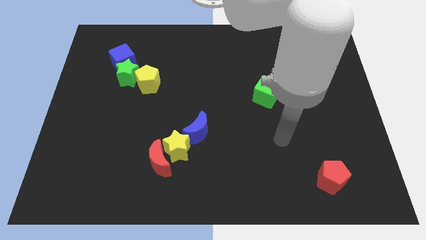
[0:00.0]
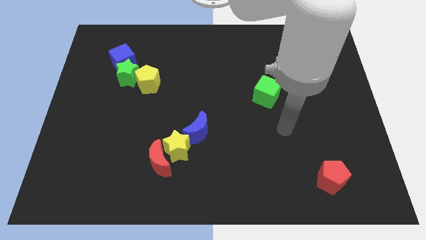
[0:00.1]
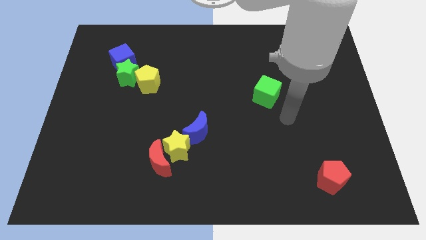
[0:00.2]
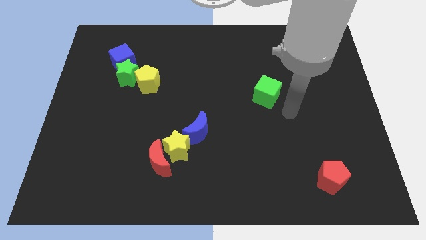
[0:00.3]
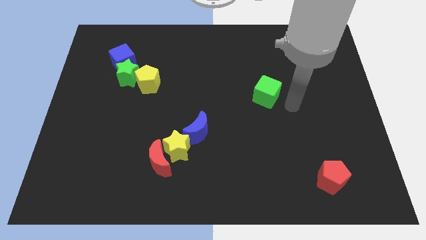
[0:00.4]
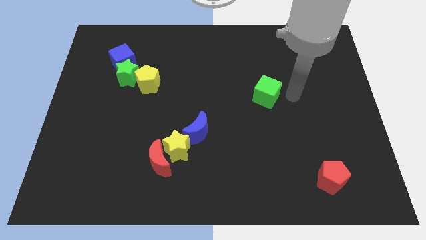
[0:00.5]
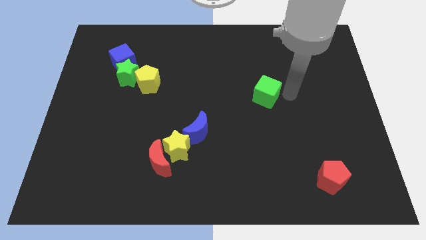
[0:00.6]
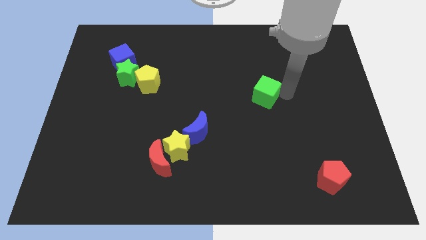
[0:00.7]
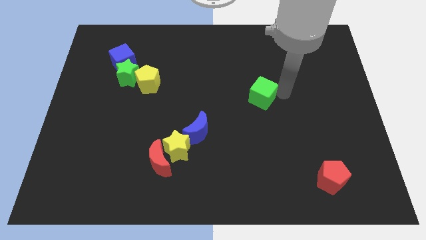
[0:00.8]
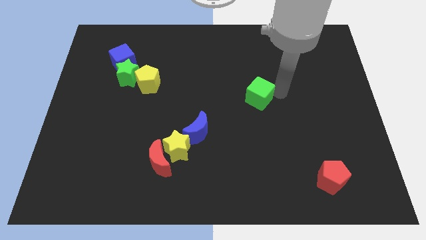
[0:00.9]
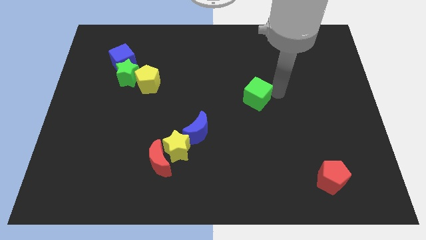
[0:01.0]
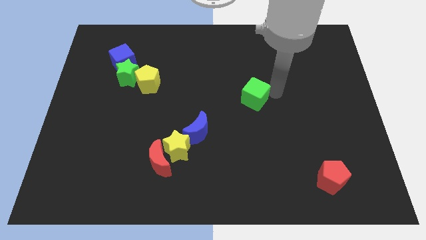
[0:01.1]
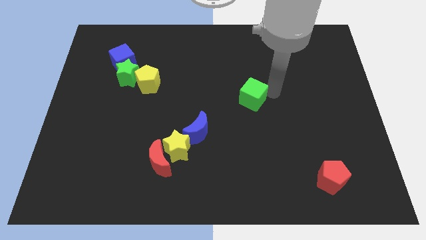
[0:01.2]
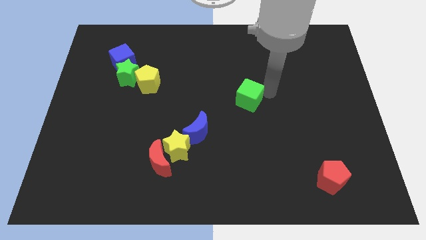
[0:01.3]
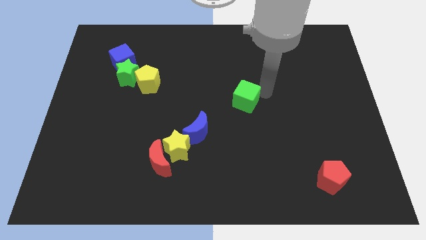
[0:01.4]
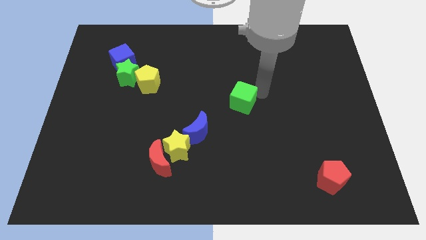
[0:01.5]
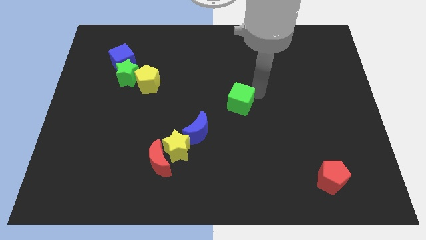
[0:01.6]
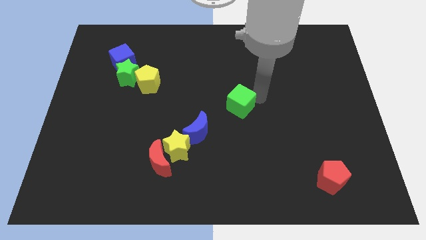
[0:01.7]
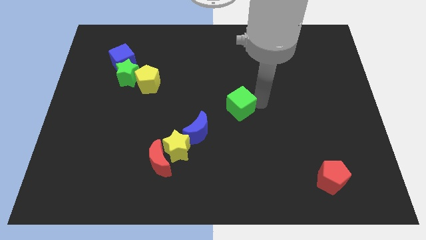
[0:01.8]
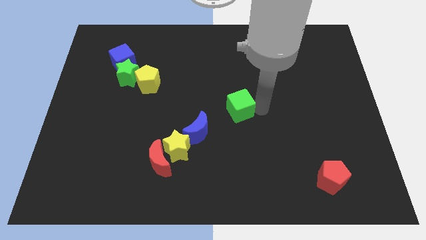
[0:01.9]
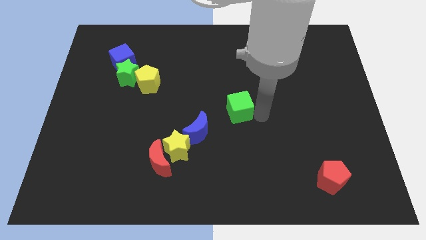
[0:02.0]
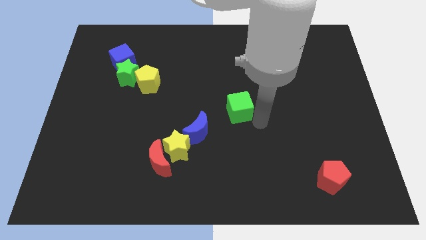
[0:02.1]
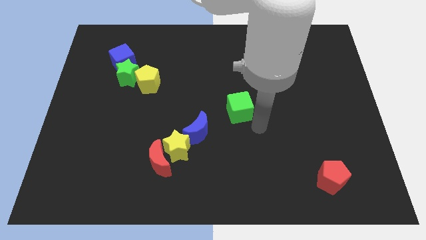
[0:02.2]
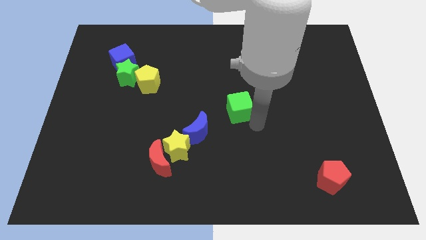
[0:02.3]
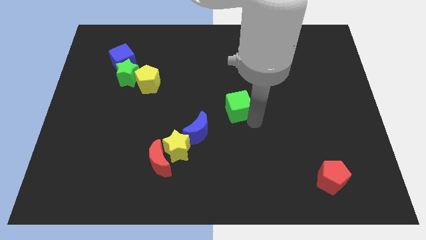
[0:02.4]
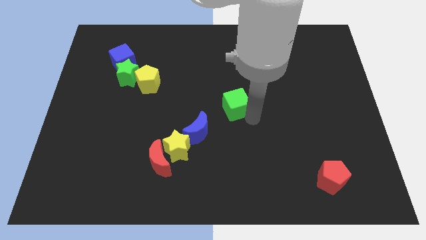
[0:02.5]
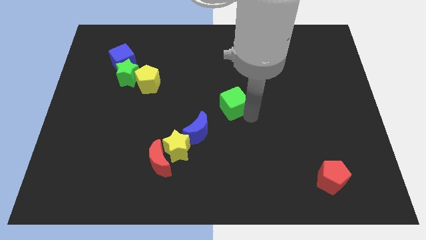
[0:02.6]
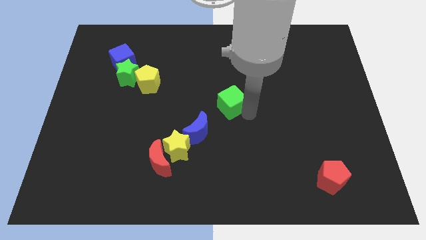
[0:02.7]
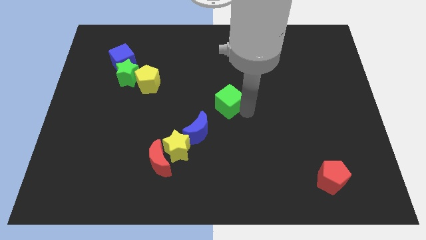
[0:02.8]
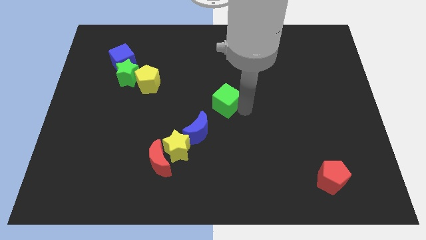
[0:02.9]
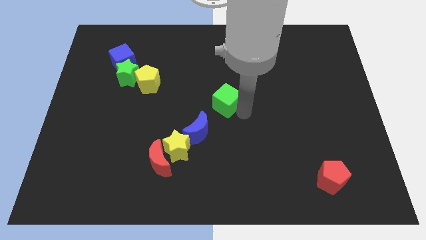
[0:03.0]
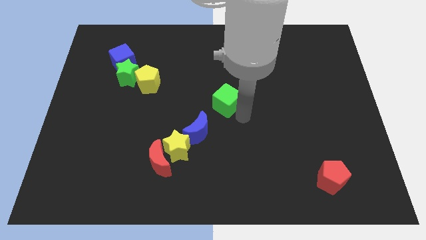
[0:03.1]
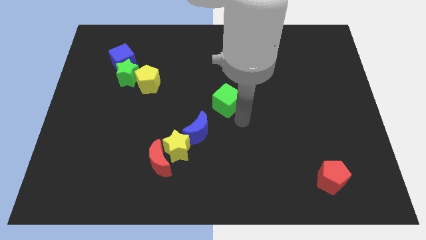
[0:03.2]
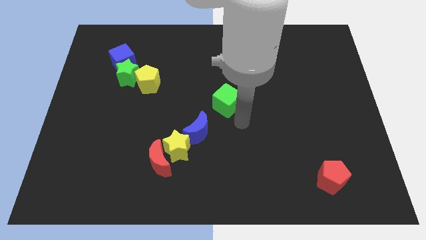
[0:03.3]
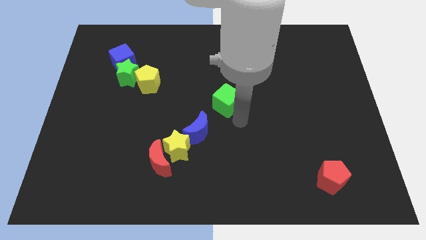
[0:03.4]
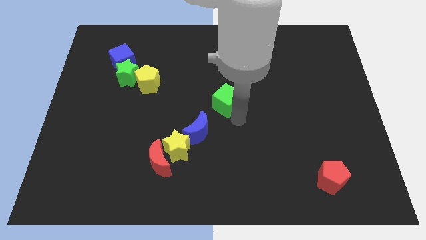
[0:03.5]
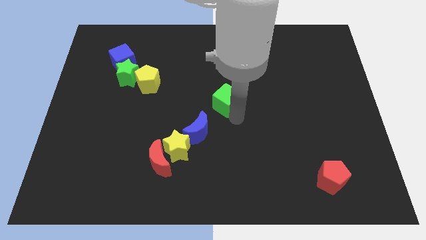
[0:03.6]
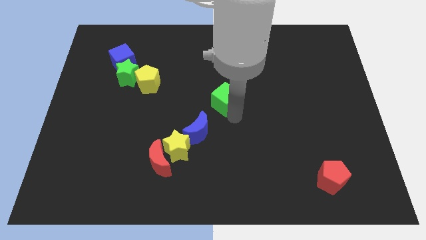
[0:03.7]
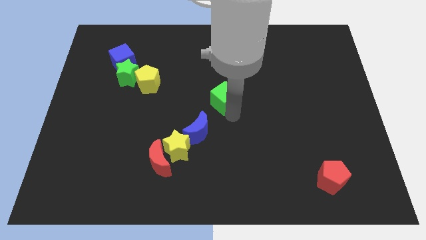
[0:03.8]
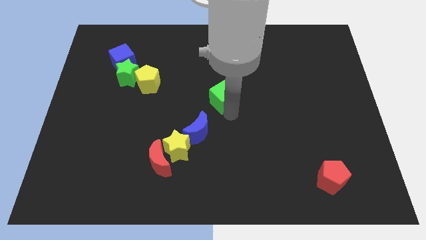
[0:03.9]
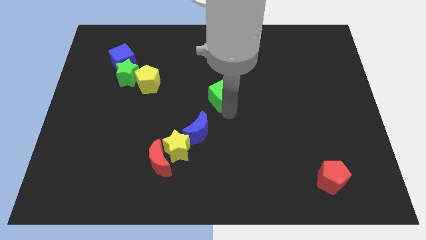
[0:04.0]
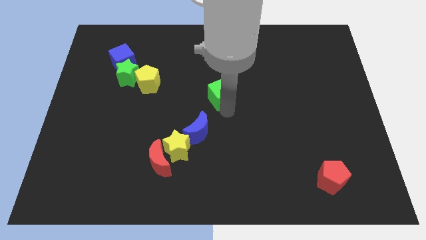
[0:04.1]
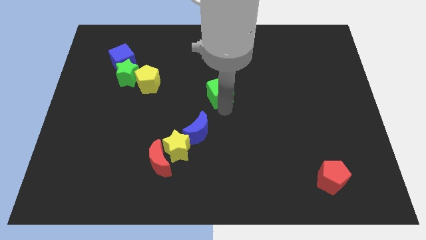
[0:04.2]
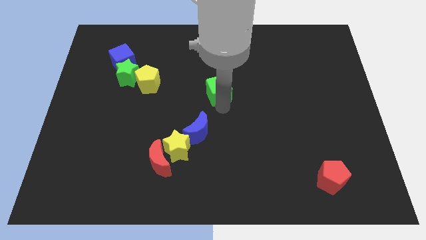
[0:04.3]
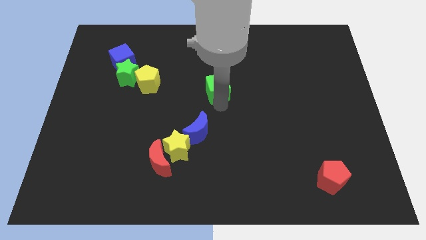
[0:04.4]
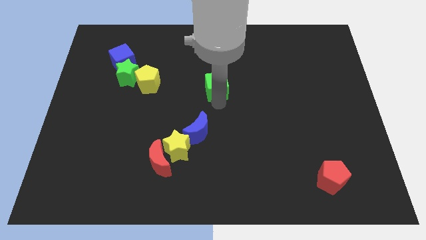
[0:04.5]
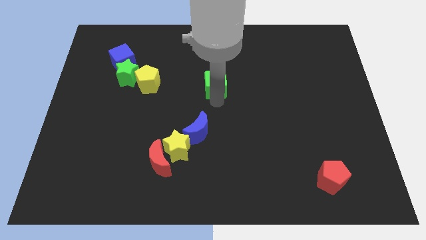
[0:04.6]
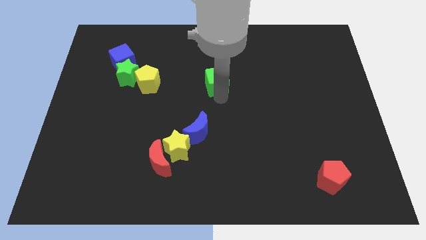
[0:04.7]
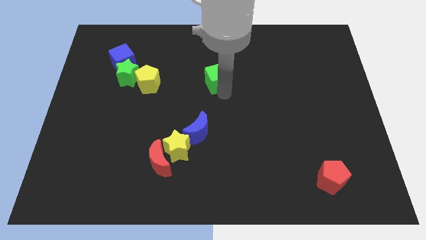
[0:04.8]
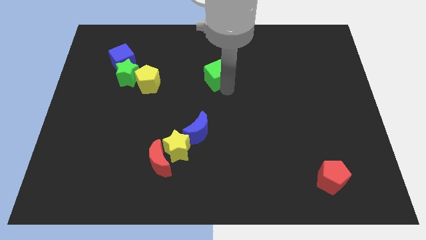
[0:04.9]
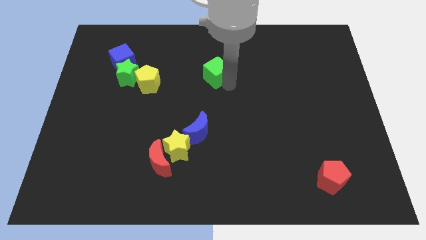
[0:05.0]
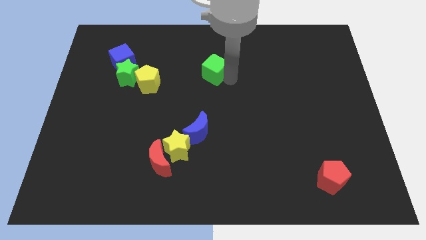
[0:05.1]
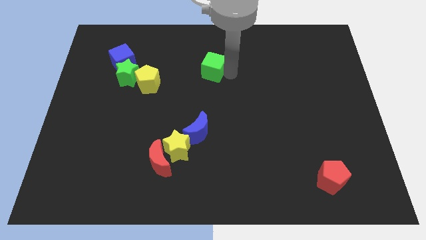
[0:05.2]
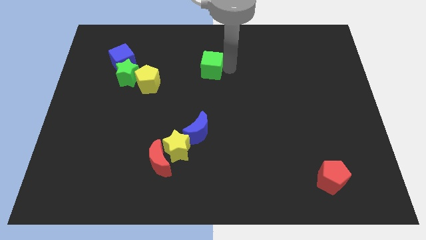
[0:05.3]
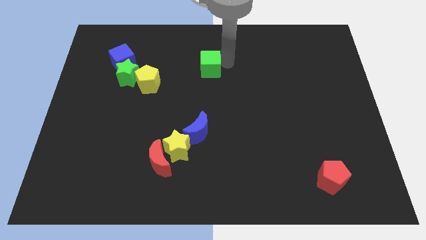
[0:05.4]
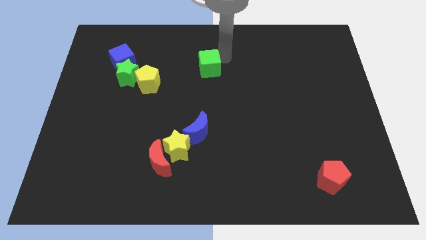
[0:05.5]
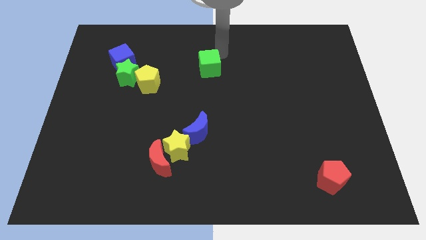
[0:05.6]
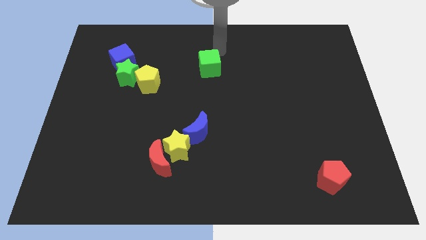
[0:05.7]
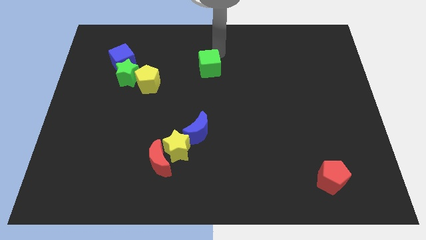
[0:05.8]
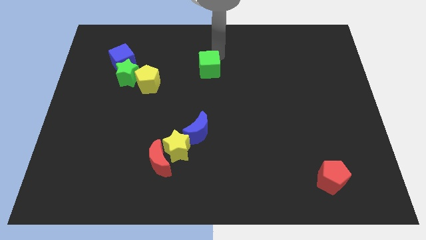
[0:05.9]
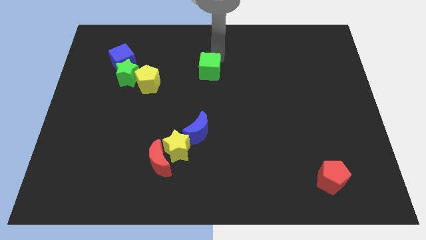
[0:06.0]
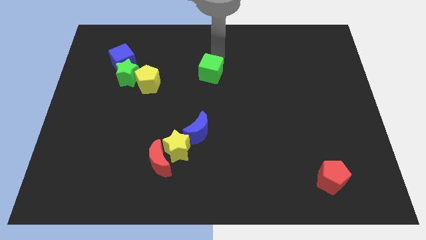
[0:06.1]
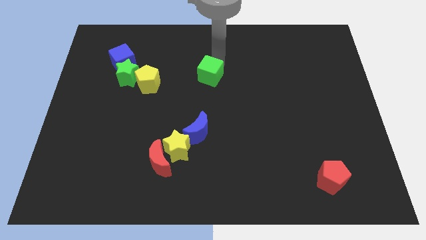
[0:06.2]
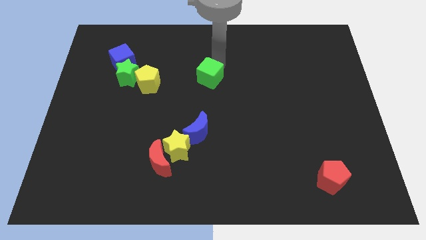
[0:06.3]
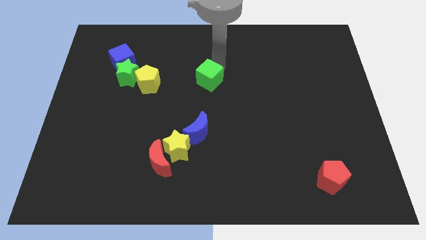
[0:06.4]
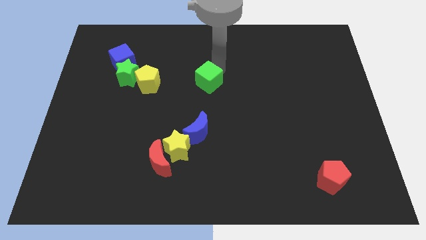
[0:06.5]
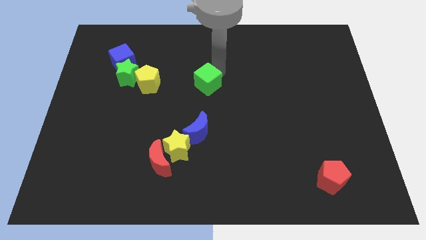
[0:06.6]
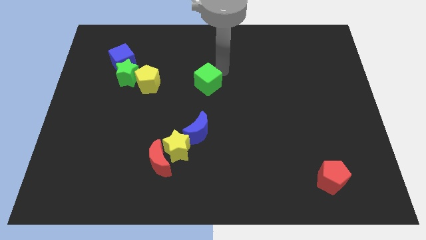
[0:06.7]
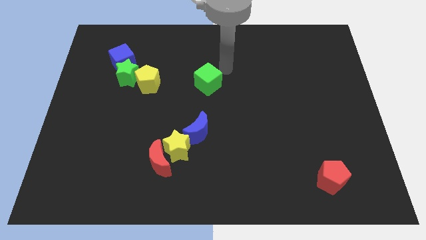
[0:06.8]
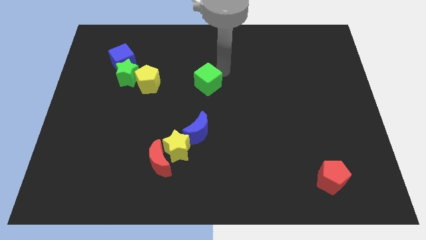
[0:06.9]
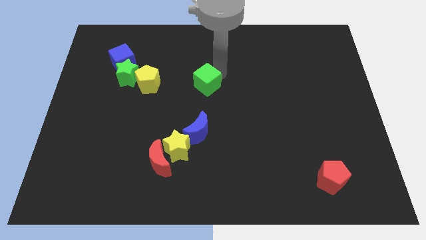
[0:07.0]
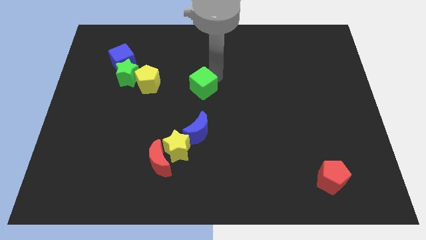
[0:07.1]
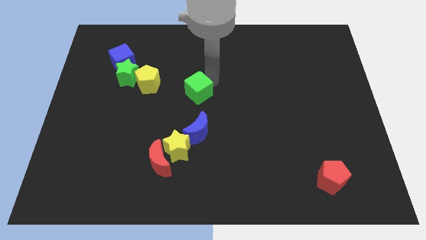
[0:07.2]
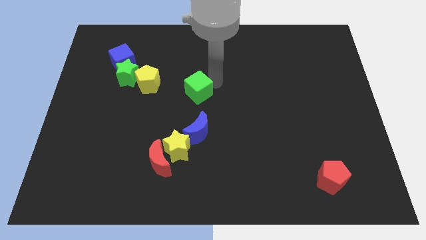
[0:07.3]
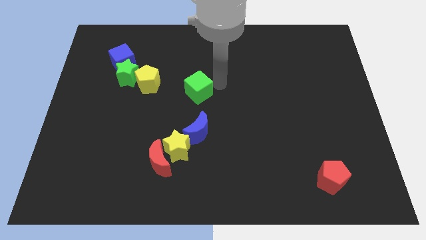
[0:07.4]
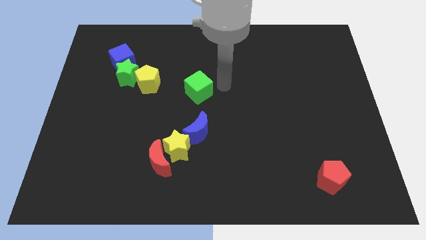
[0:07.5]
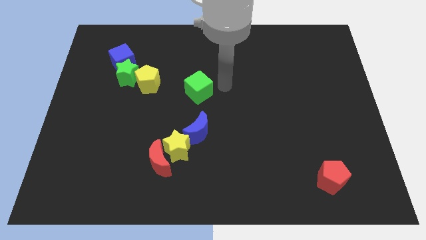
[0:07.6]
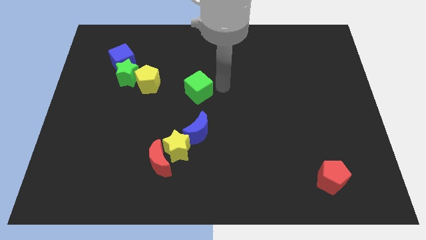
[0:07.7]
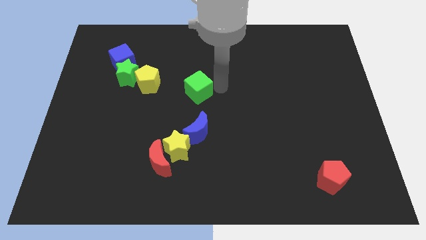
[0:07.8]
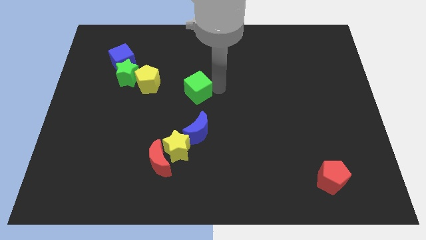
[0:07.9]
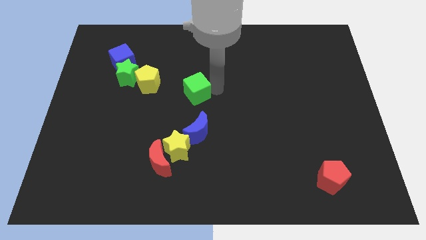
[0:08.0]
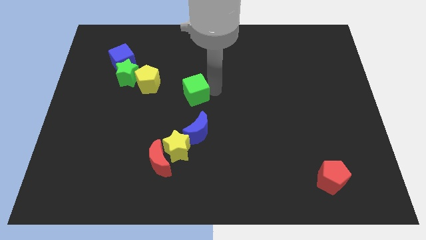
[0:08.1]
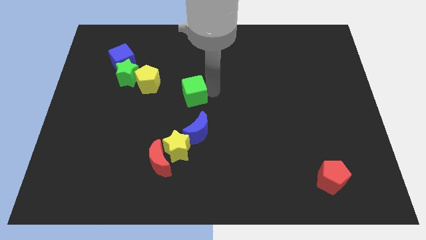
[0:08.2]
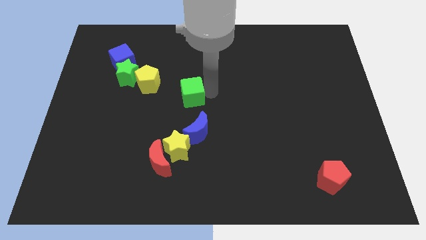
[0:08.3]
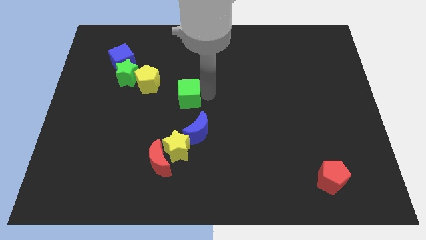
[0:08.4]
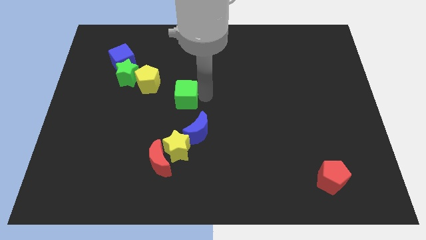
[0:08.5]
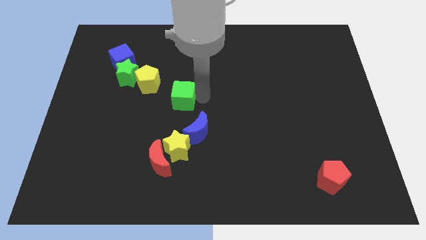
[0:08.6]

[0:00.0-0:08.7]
push the green cube left
